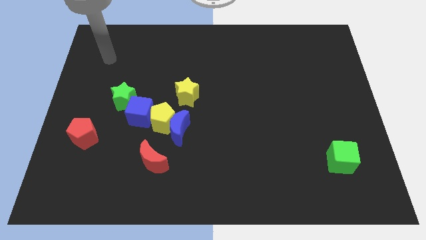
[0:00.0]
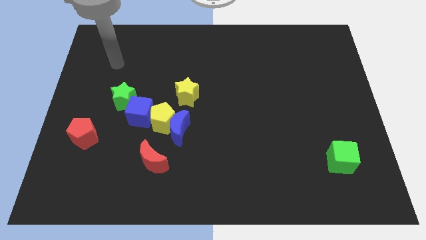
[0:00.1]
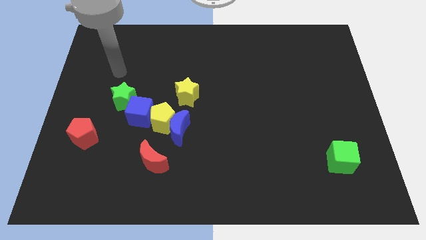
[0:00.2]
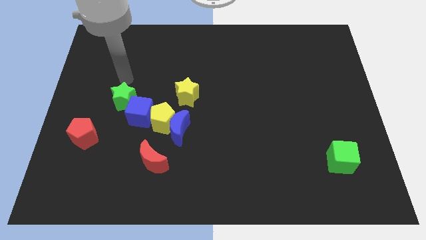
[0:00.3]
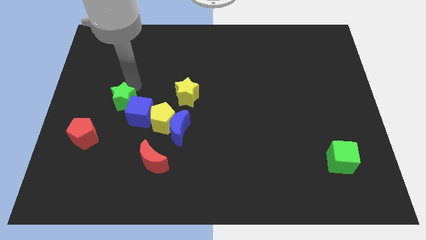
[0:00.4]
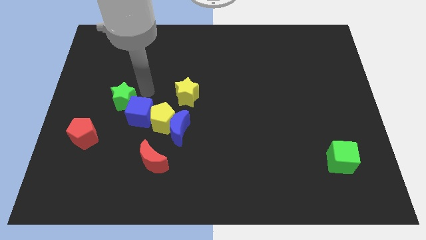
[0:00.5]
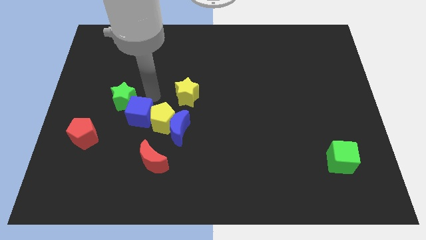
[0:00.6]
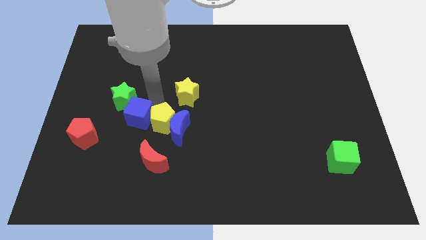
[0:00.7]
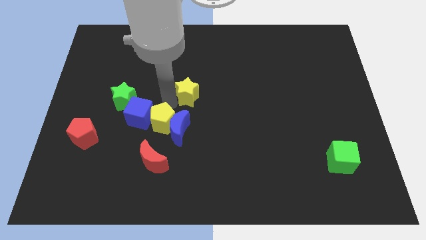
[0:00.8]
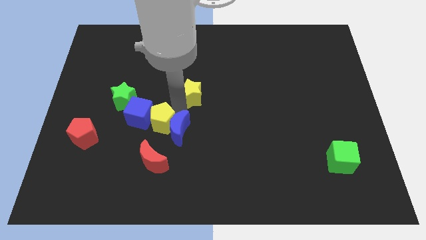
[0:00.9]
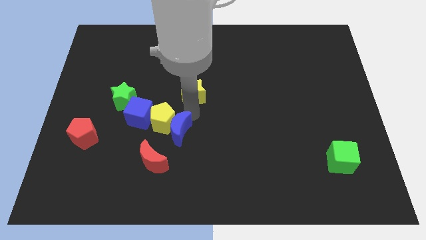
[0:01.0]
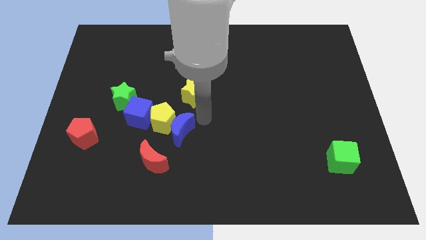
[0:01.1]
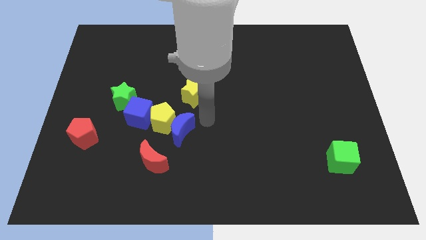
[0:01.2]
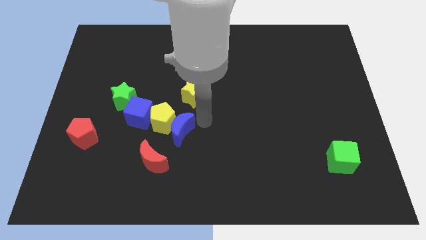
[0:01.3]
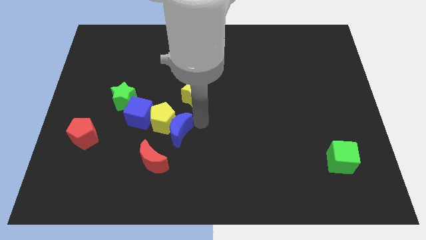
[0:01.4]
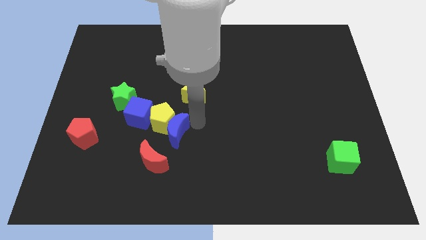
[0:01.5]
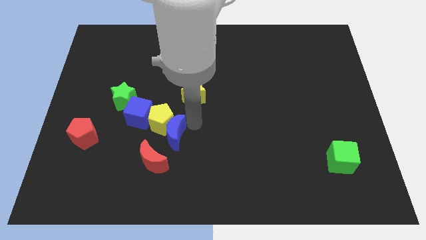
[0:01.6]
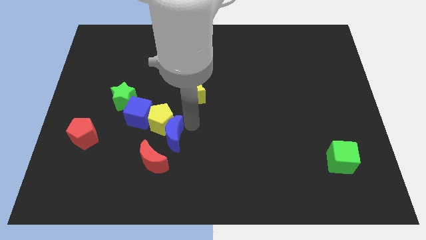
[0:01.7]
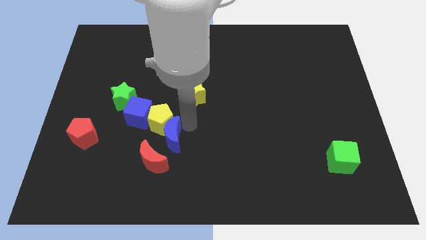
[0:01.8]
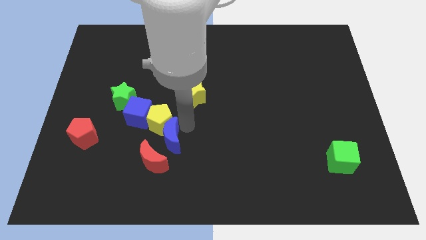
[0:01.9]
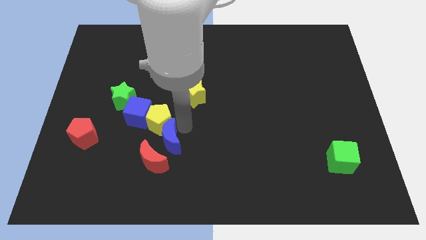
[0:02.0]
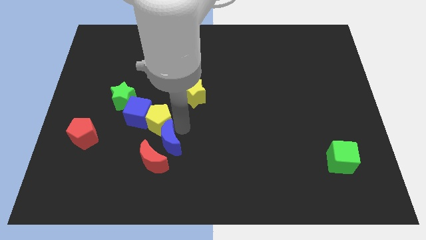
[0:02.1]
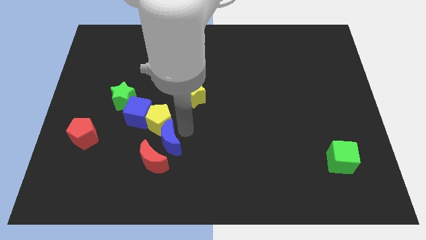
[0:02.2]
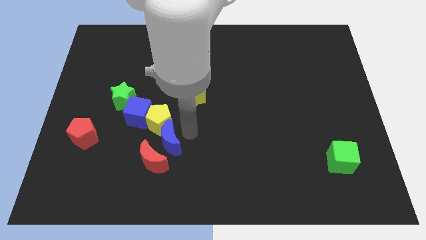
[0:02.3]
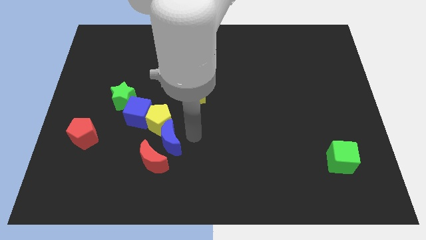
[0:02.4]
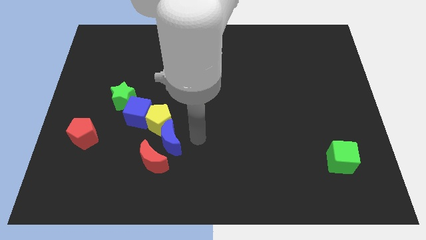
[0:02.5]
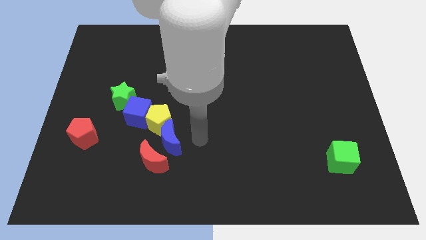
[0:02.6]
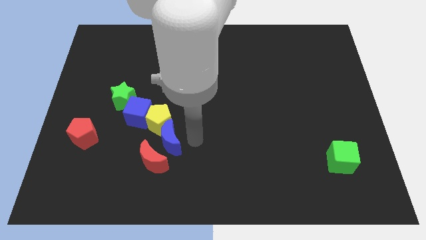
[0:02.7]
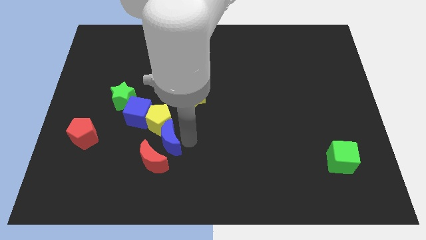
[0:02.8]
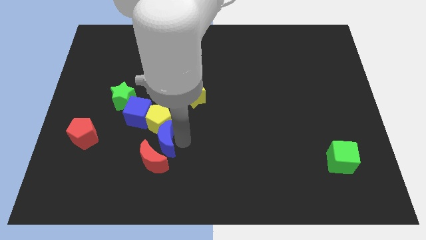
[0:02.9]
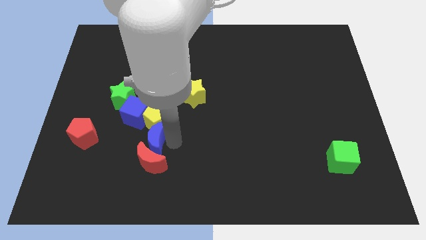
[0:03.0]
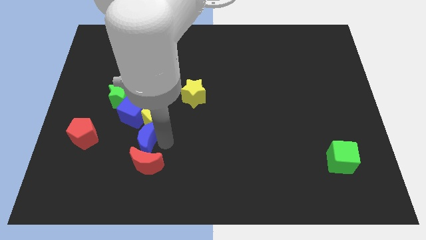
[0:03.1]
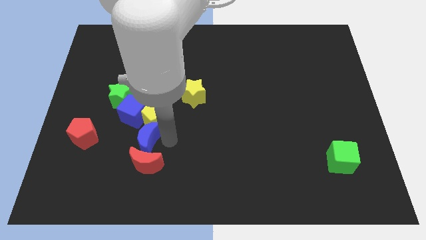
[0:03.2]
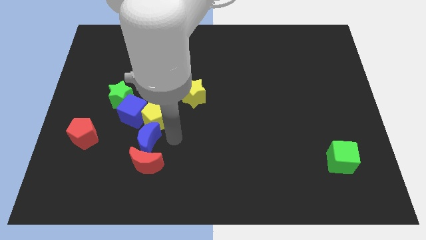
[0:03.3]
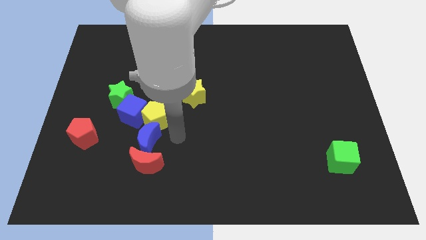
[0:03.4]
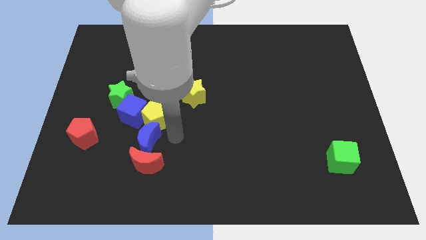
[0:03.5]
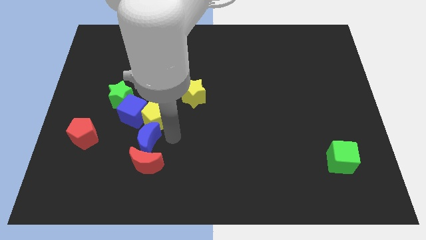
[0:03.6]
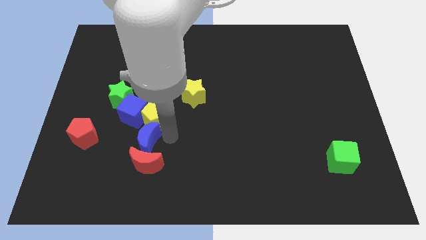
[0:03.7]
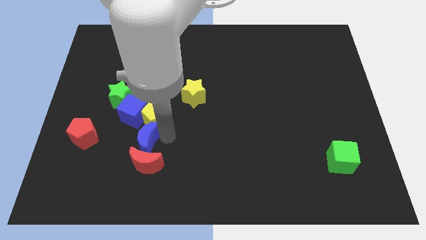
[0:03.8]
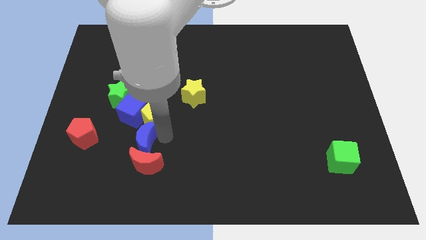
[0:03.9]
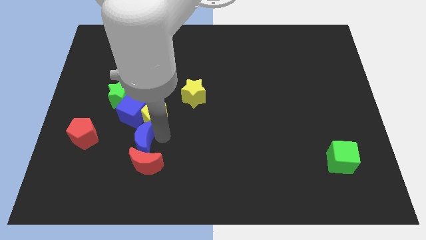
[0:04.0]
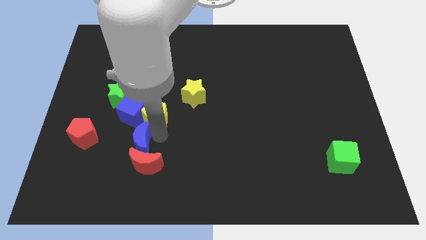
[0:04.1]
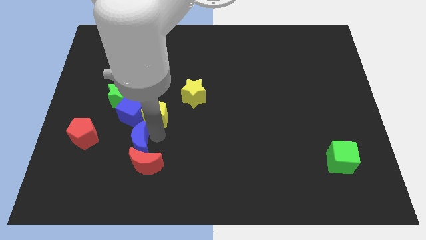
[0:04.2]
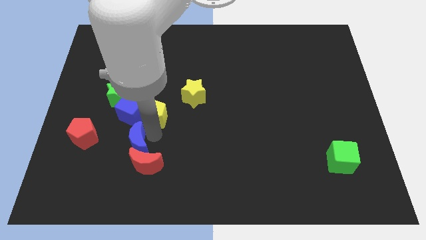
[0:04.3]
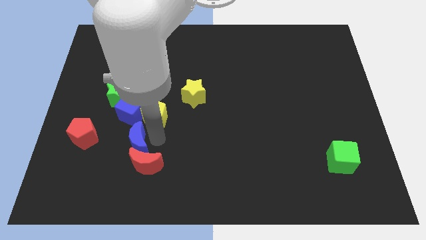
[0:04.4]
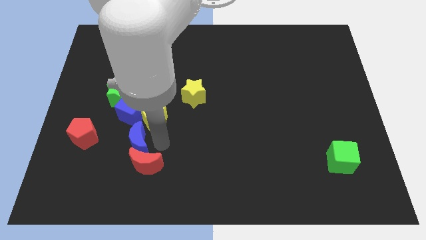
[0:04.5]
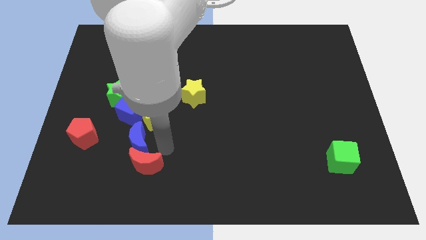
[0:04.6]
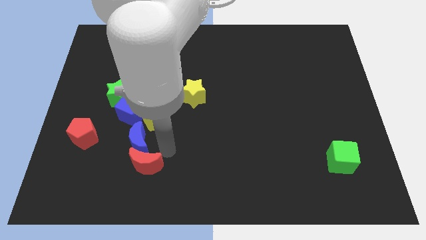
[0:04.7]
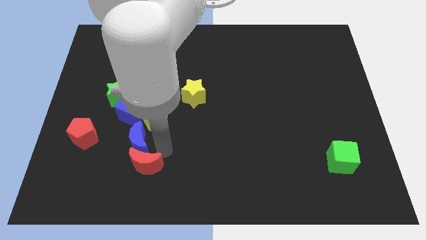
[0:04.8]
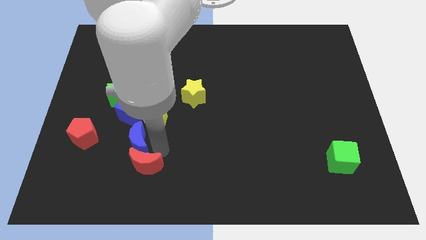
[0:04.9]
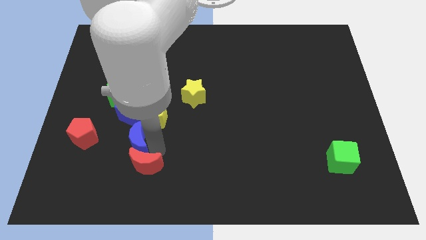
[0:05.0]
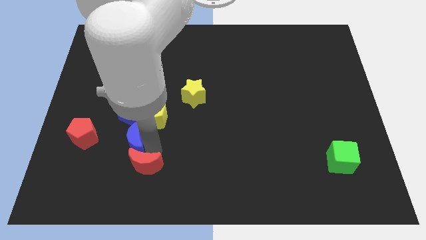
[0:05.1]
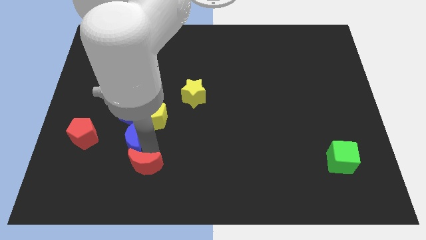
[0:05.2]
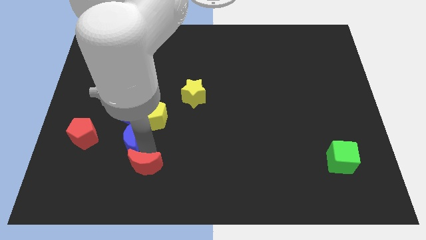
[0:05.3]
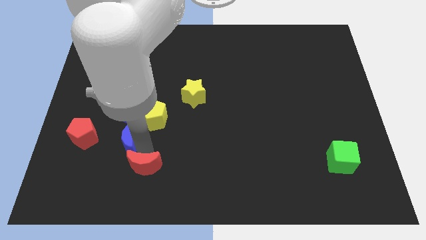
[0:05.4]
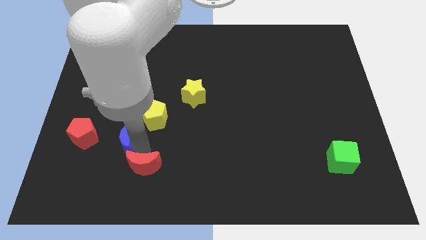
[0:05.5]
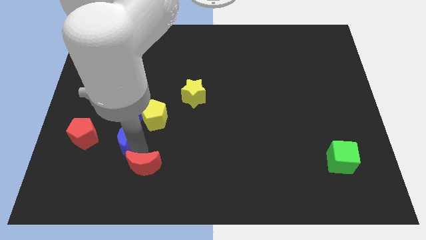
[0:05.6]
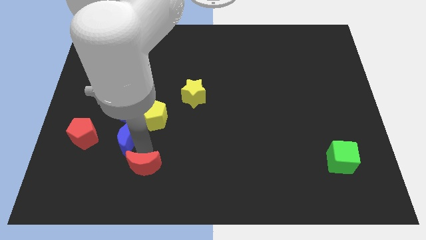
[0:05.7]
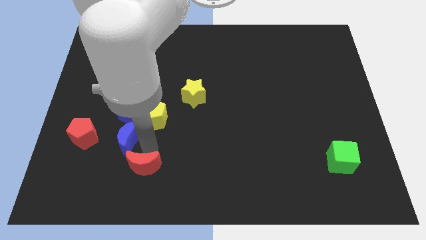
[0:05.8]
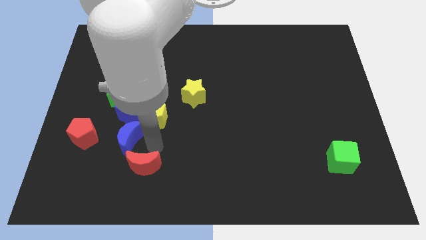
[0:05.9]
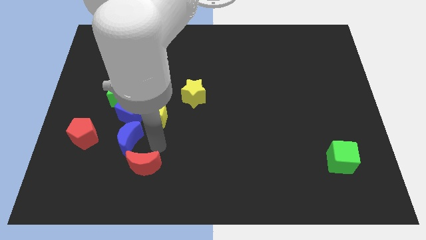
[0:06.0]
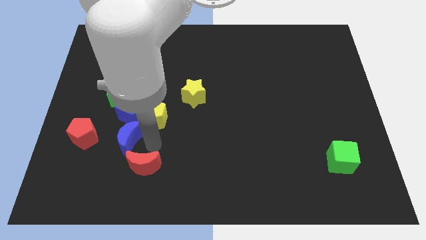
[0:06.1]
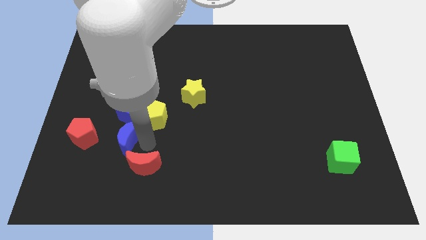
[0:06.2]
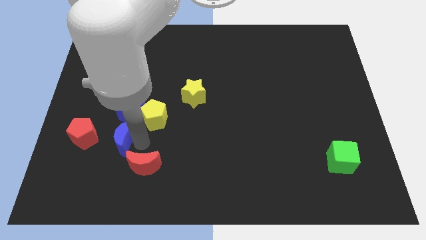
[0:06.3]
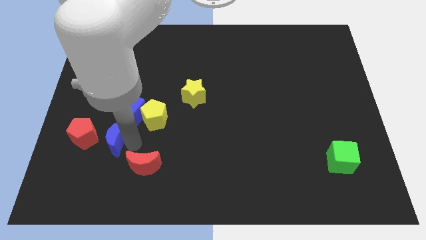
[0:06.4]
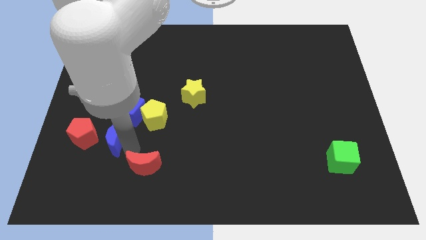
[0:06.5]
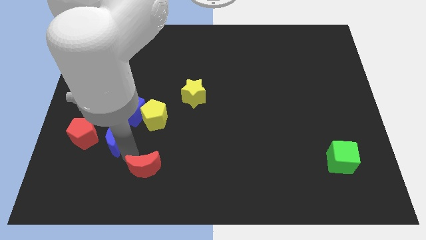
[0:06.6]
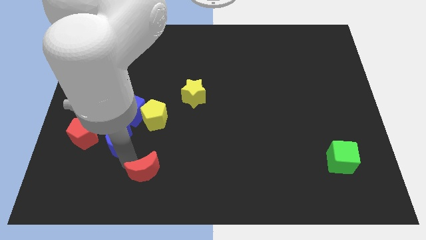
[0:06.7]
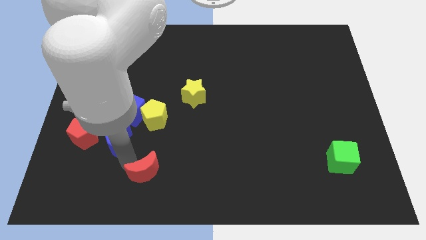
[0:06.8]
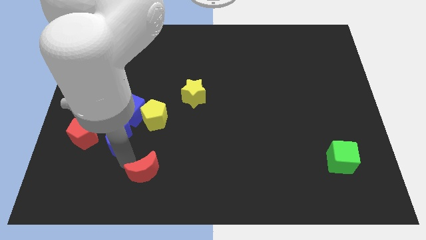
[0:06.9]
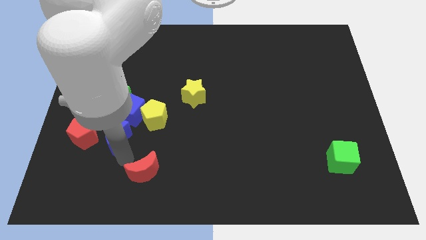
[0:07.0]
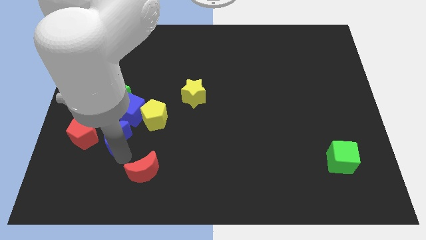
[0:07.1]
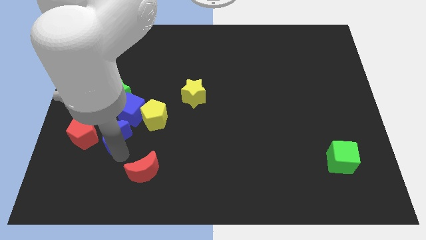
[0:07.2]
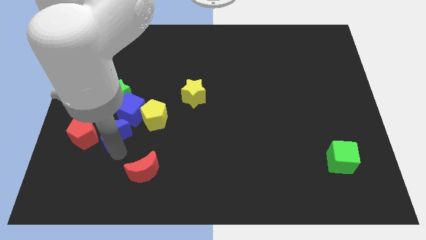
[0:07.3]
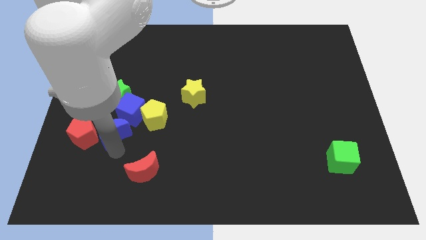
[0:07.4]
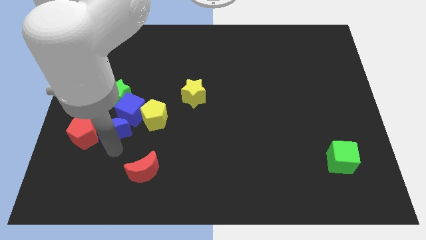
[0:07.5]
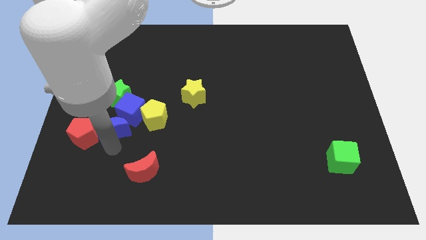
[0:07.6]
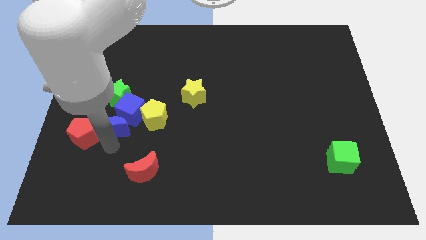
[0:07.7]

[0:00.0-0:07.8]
slide the blue moon towards the red pentagon

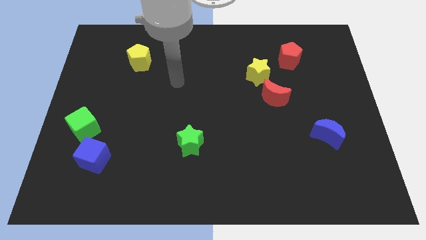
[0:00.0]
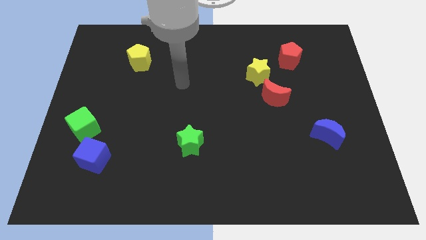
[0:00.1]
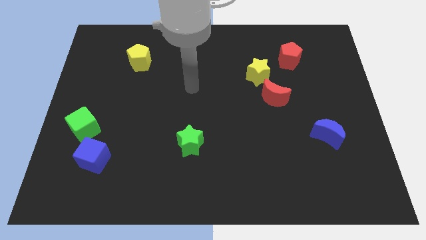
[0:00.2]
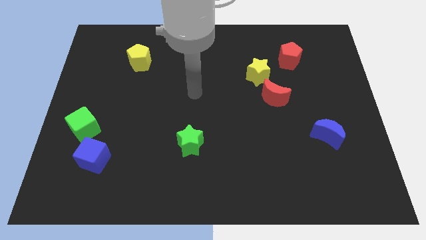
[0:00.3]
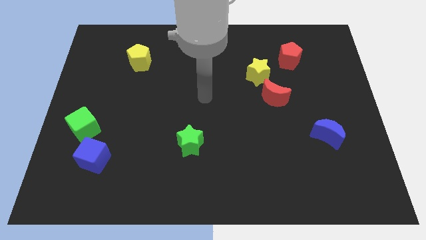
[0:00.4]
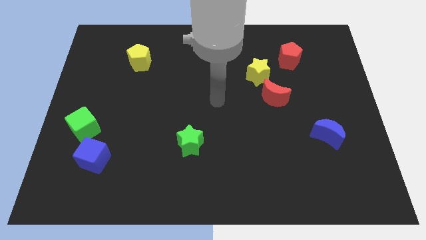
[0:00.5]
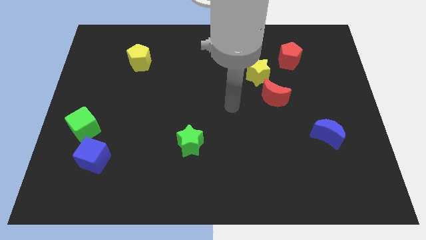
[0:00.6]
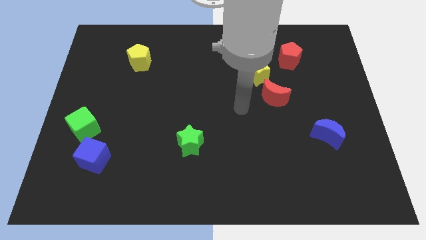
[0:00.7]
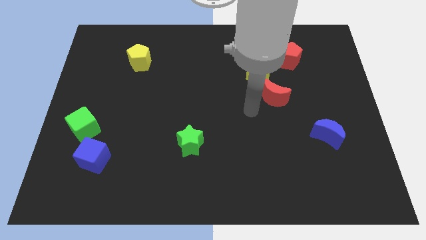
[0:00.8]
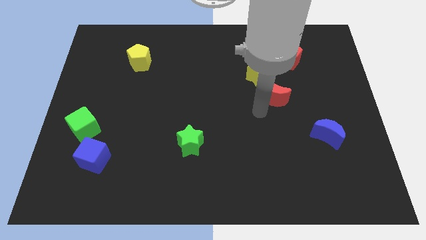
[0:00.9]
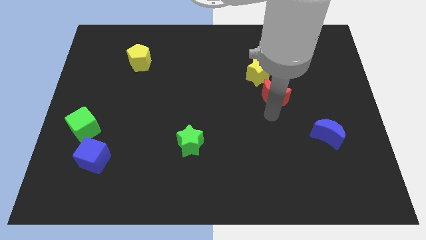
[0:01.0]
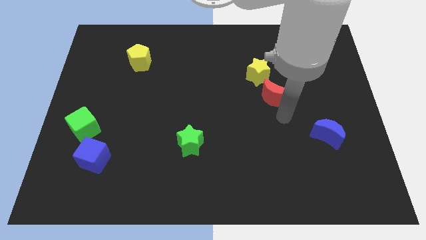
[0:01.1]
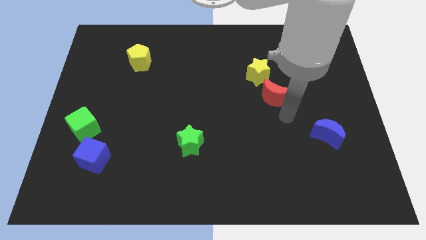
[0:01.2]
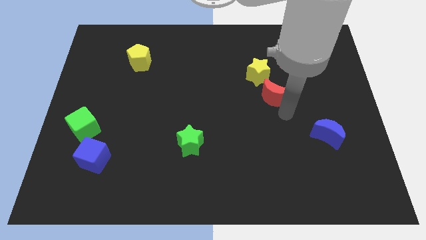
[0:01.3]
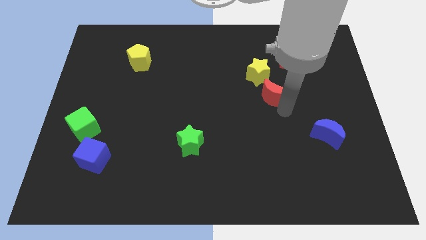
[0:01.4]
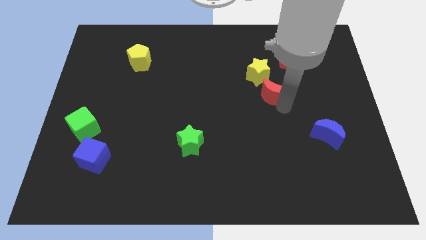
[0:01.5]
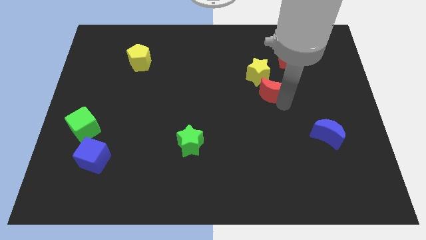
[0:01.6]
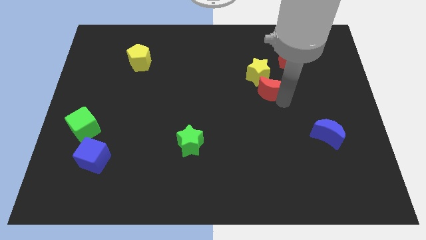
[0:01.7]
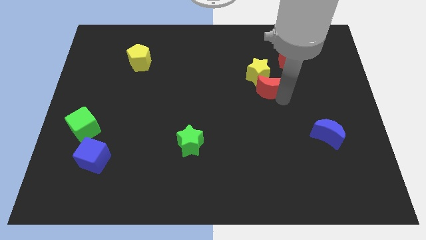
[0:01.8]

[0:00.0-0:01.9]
move the red moon next to the yellow star
